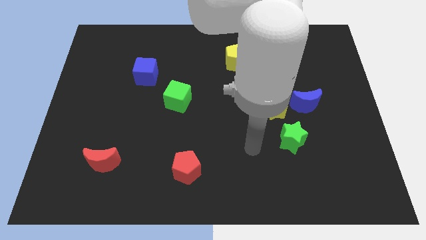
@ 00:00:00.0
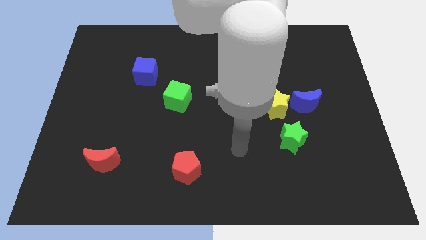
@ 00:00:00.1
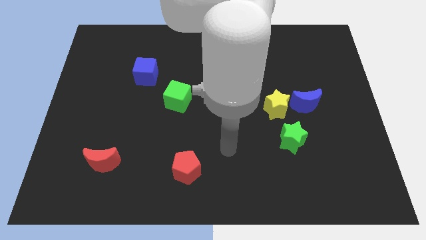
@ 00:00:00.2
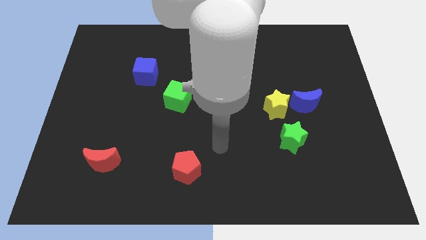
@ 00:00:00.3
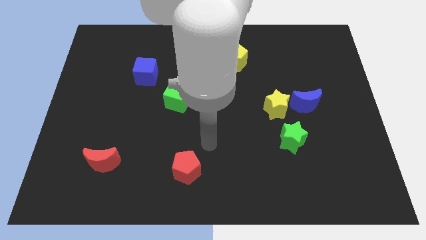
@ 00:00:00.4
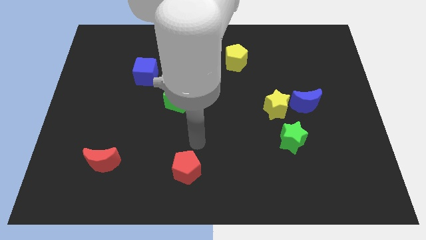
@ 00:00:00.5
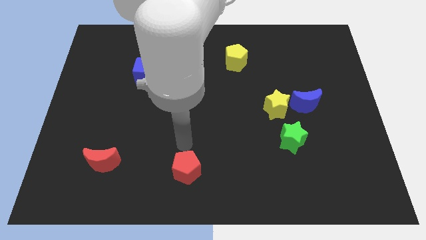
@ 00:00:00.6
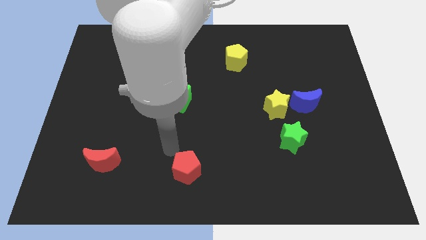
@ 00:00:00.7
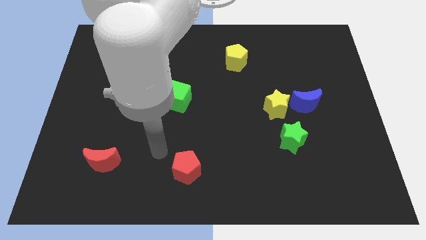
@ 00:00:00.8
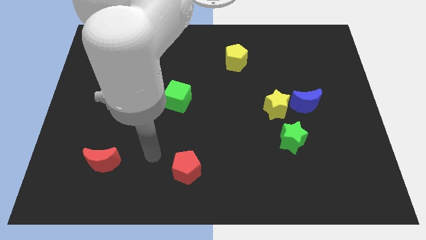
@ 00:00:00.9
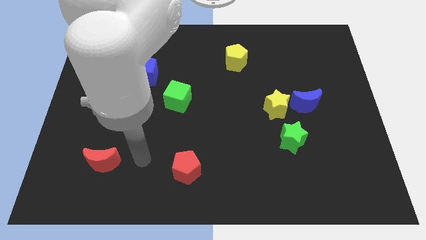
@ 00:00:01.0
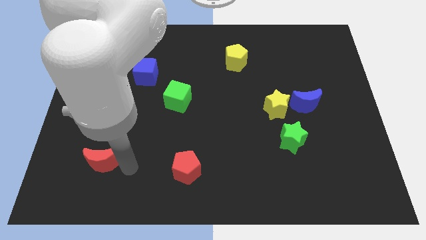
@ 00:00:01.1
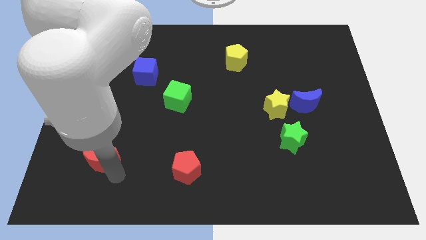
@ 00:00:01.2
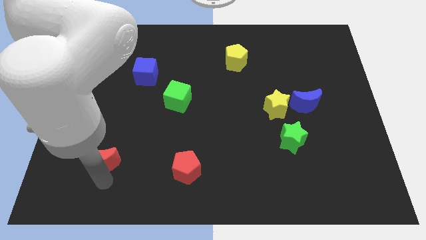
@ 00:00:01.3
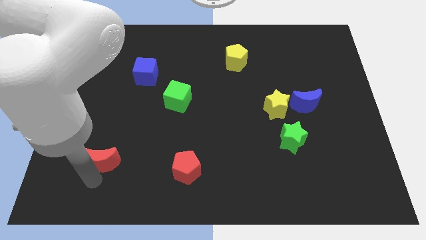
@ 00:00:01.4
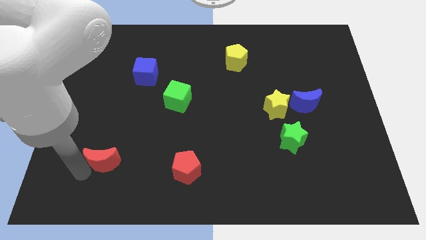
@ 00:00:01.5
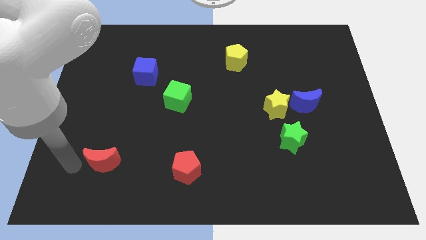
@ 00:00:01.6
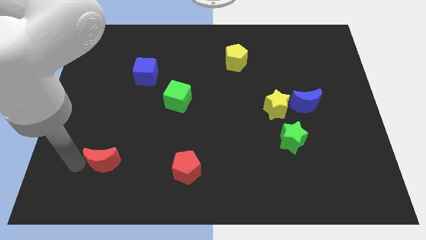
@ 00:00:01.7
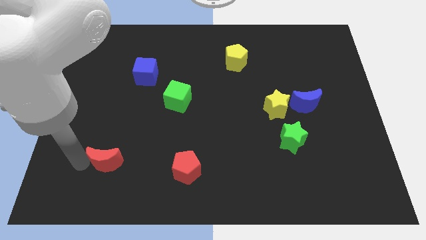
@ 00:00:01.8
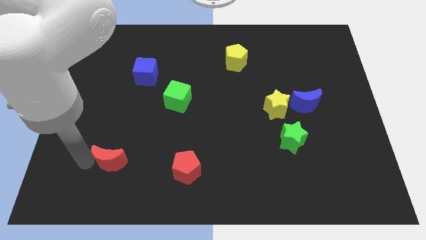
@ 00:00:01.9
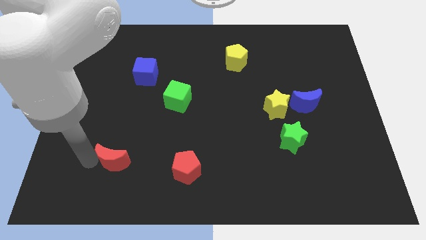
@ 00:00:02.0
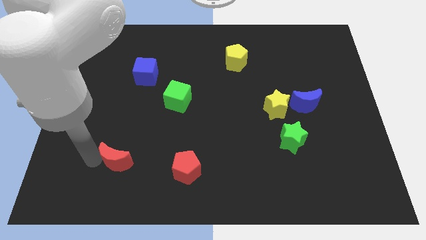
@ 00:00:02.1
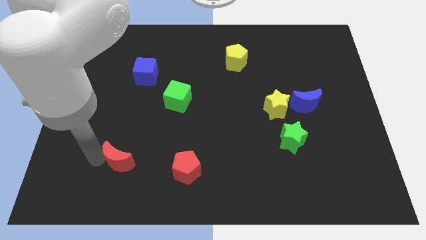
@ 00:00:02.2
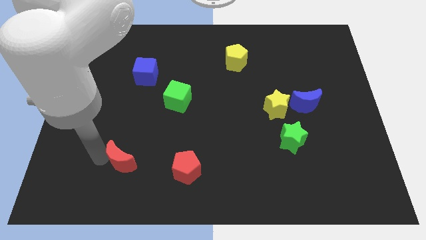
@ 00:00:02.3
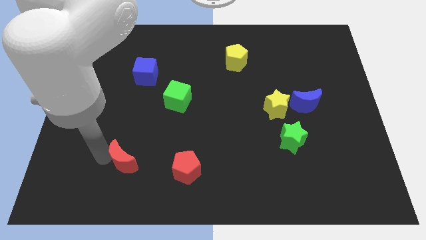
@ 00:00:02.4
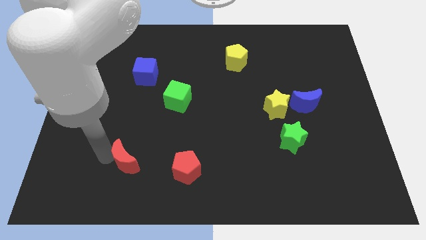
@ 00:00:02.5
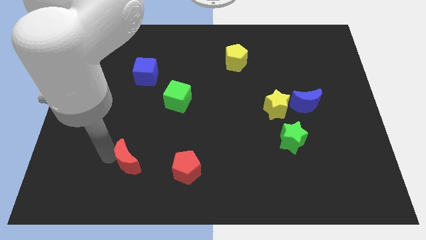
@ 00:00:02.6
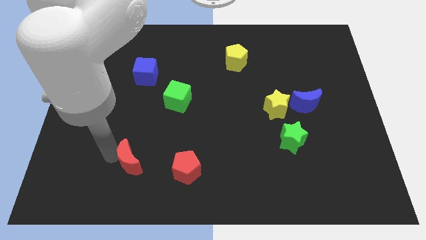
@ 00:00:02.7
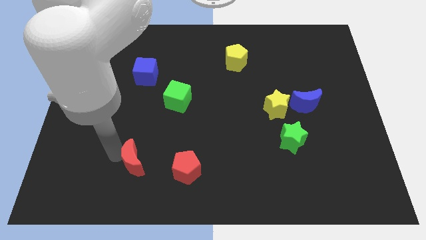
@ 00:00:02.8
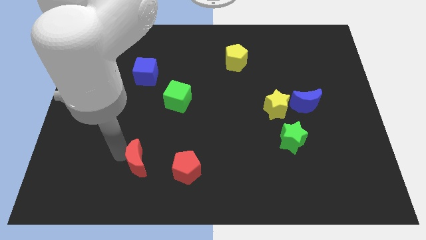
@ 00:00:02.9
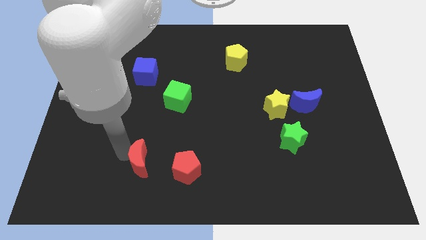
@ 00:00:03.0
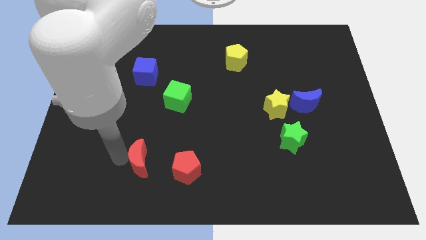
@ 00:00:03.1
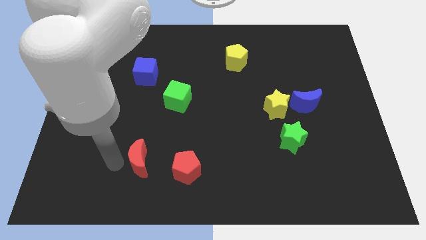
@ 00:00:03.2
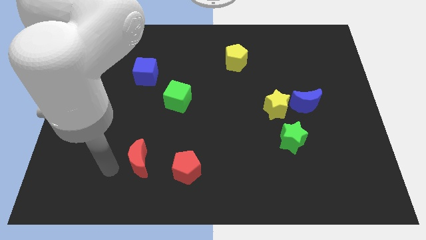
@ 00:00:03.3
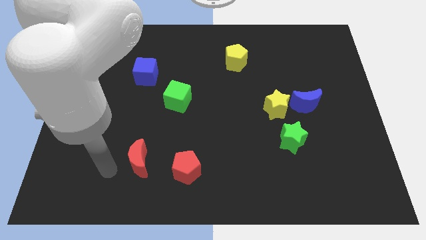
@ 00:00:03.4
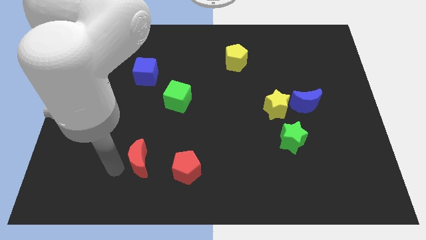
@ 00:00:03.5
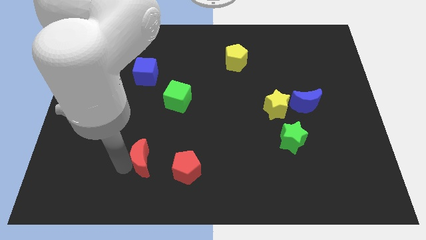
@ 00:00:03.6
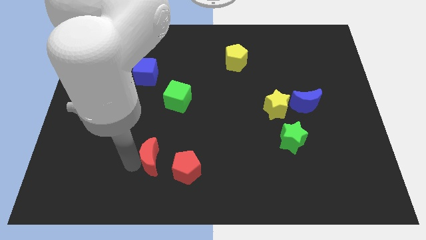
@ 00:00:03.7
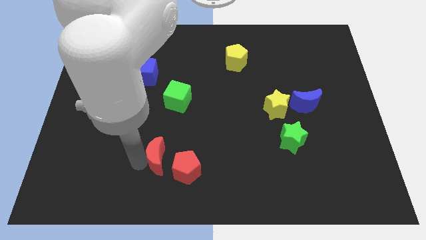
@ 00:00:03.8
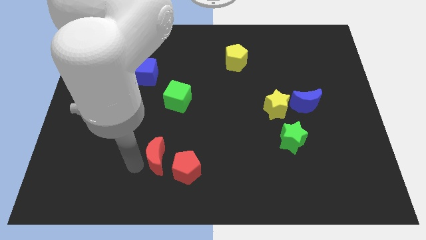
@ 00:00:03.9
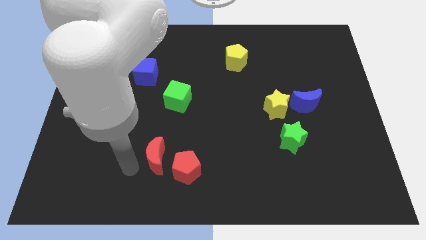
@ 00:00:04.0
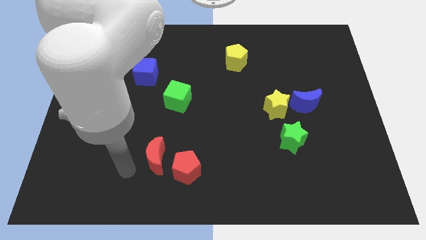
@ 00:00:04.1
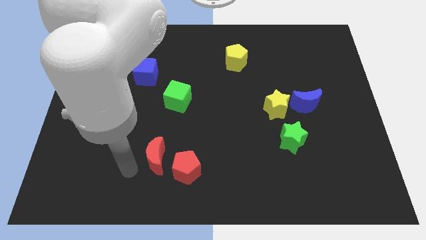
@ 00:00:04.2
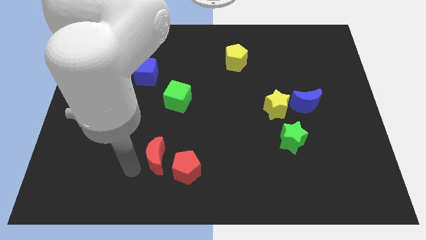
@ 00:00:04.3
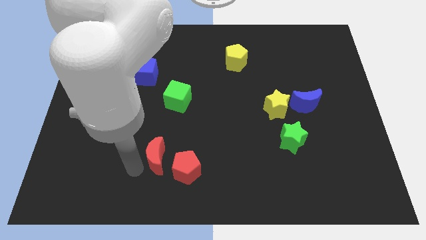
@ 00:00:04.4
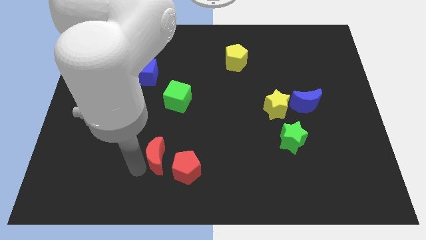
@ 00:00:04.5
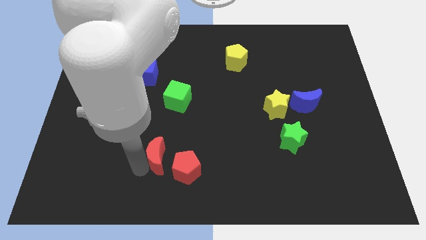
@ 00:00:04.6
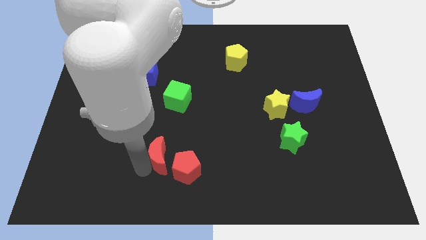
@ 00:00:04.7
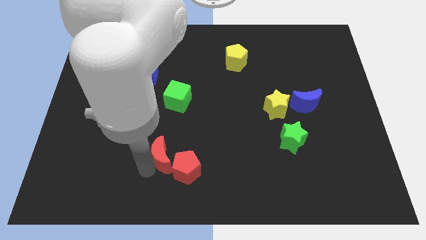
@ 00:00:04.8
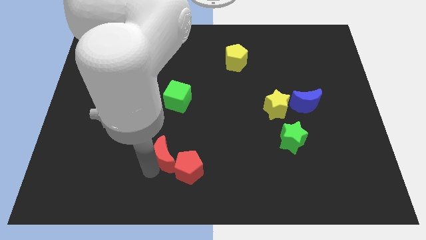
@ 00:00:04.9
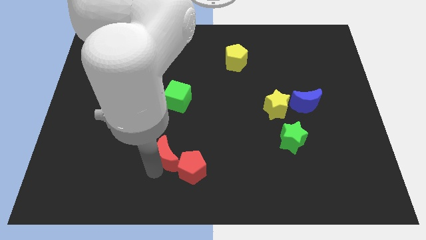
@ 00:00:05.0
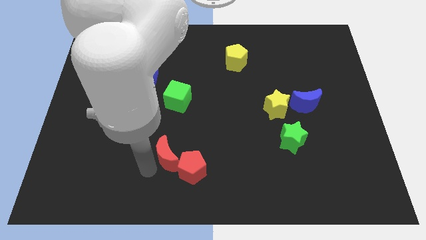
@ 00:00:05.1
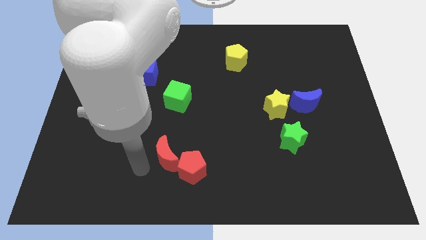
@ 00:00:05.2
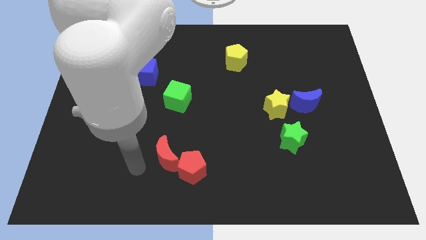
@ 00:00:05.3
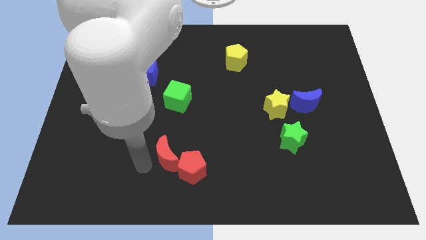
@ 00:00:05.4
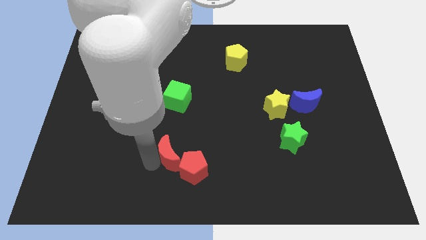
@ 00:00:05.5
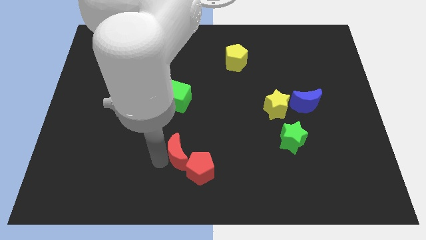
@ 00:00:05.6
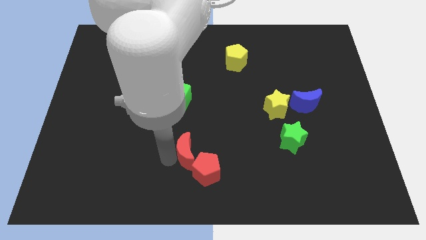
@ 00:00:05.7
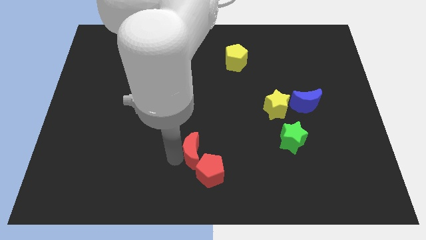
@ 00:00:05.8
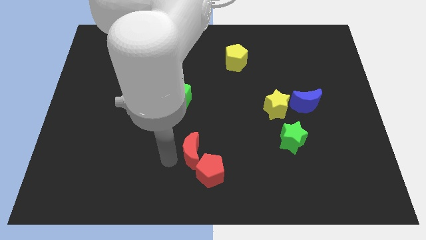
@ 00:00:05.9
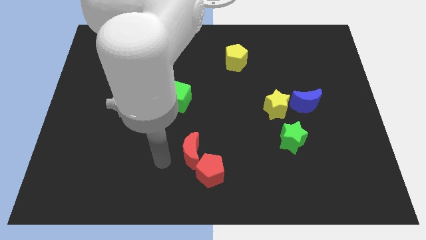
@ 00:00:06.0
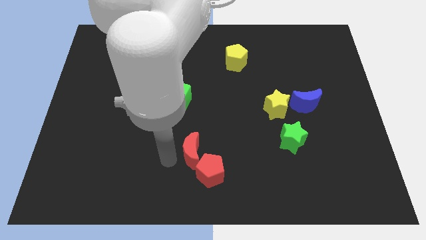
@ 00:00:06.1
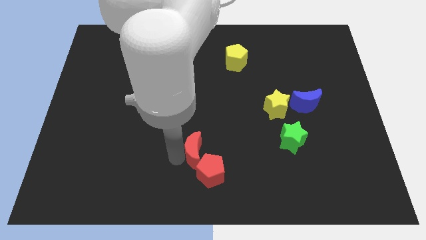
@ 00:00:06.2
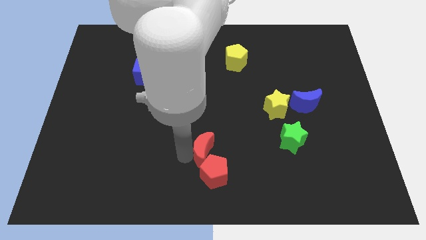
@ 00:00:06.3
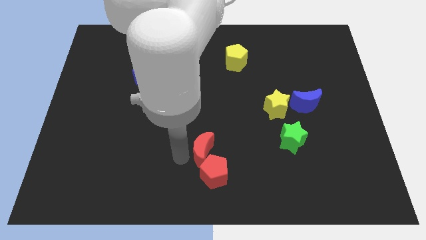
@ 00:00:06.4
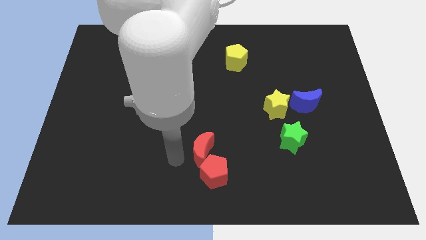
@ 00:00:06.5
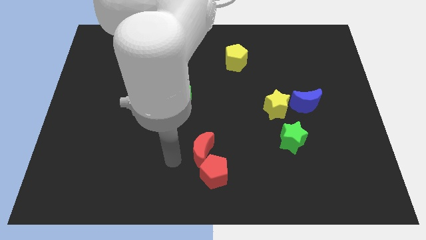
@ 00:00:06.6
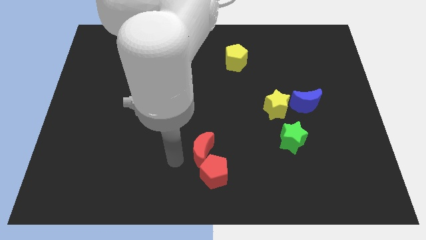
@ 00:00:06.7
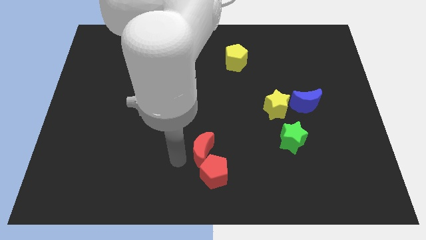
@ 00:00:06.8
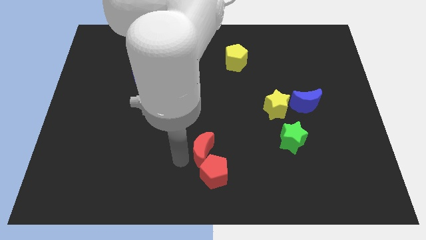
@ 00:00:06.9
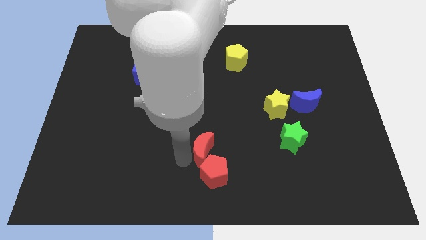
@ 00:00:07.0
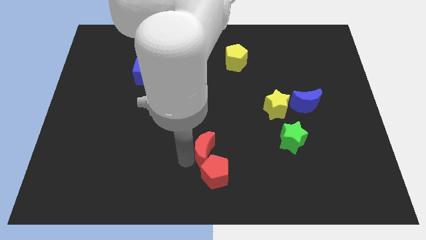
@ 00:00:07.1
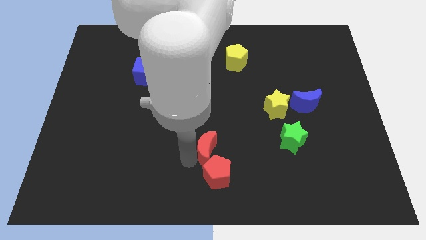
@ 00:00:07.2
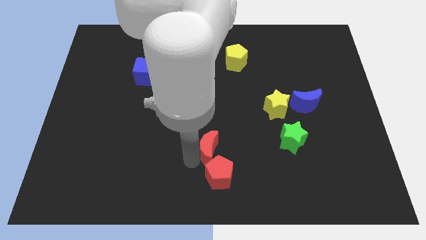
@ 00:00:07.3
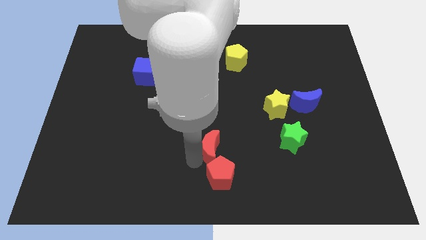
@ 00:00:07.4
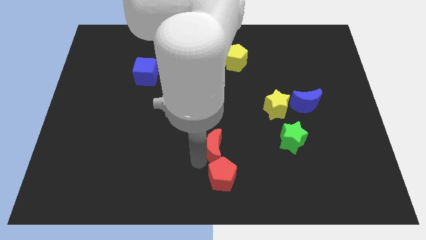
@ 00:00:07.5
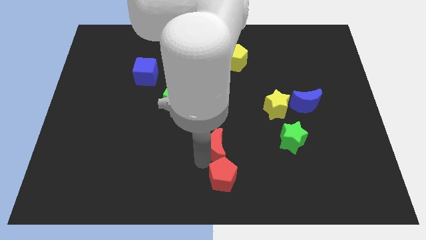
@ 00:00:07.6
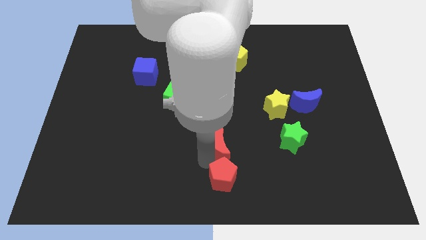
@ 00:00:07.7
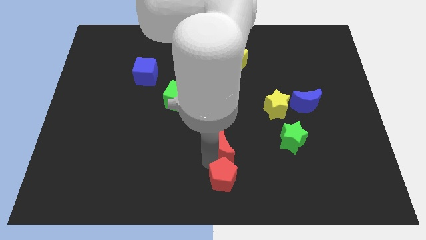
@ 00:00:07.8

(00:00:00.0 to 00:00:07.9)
push the red moon left of the green star
